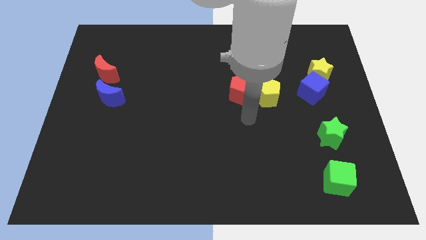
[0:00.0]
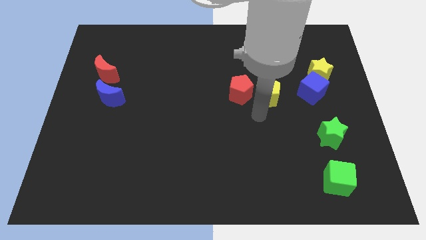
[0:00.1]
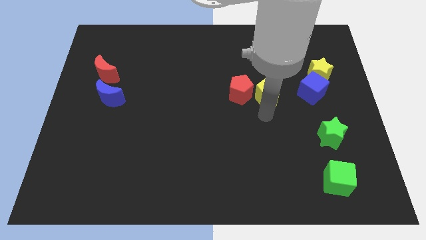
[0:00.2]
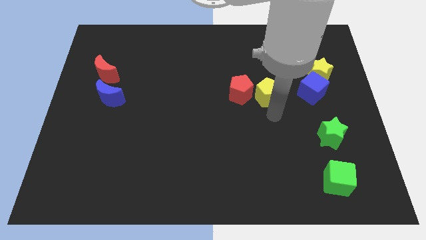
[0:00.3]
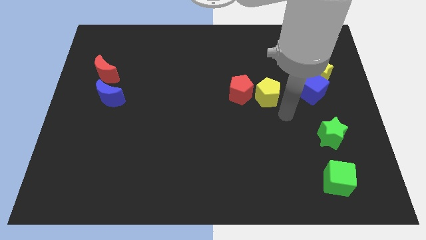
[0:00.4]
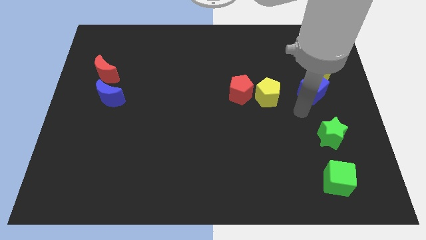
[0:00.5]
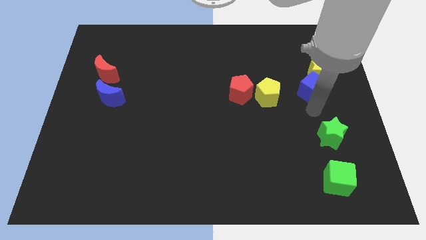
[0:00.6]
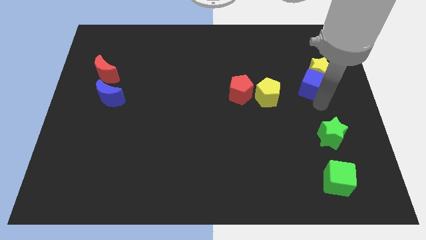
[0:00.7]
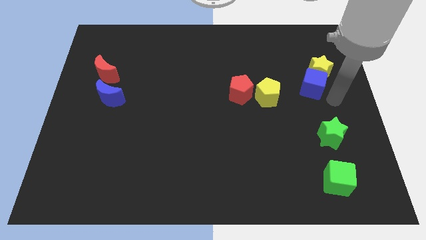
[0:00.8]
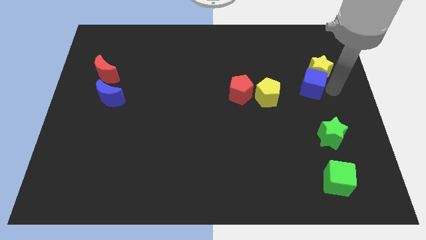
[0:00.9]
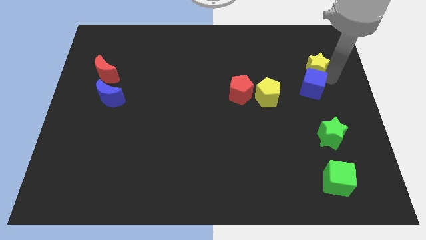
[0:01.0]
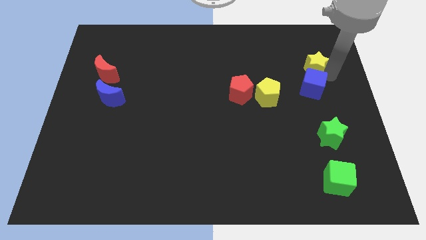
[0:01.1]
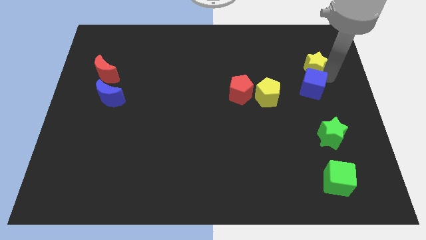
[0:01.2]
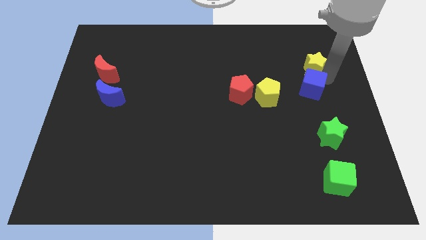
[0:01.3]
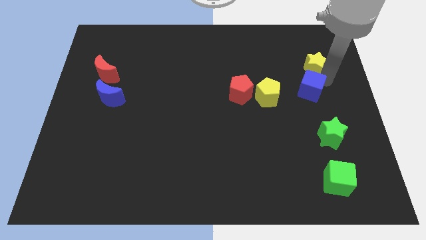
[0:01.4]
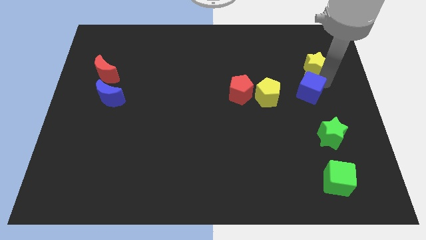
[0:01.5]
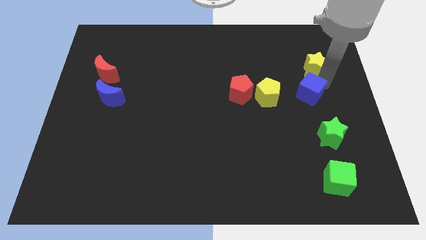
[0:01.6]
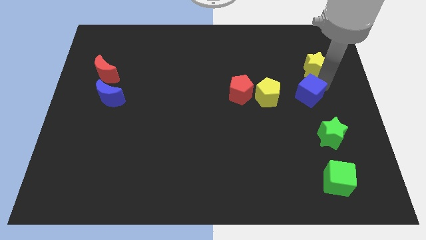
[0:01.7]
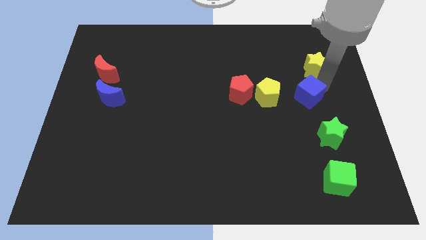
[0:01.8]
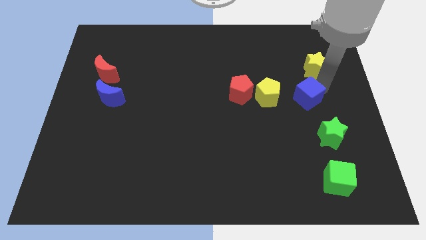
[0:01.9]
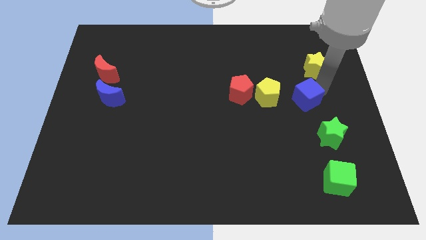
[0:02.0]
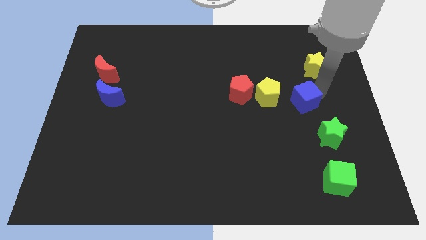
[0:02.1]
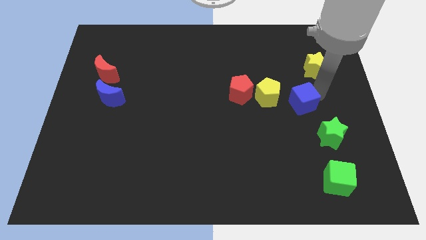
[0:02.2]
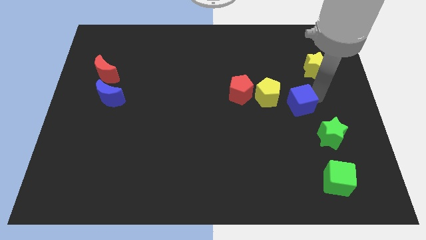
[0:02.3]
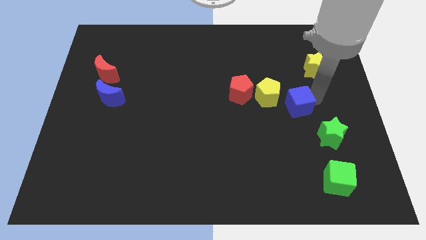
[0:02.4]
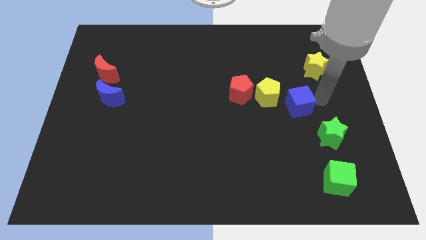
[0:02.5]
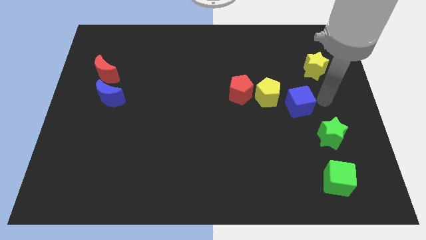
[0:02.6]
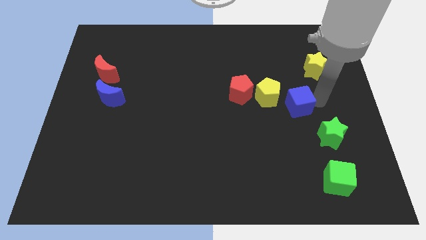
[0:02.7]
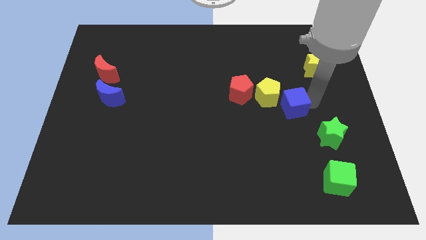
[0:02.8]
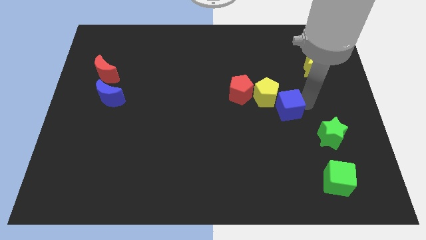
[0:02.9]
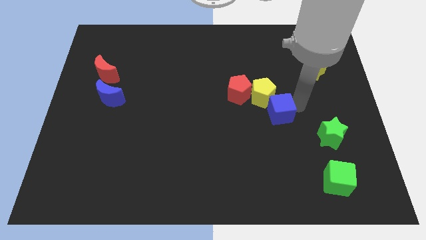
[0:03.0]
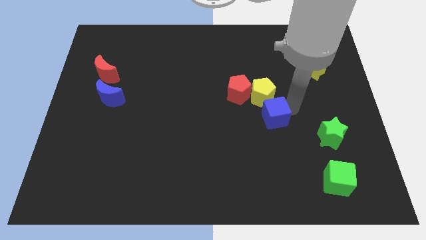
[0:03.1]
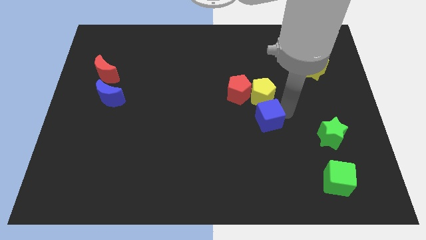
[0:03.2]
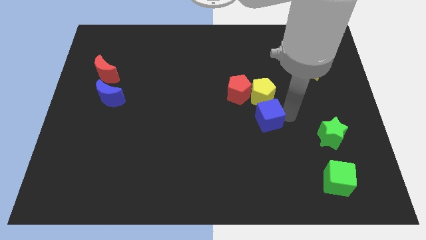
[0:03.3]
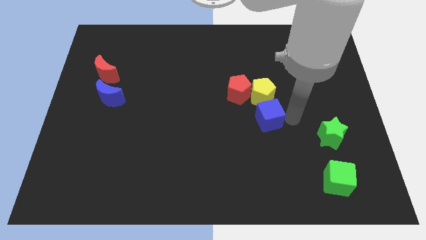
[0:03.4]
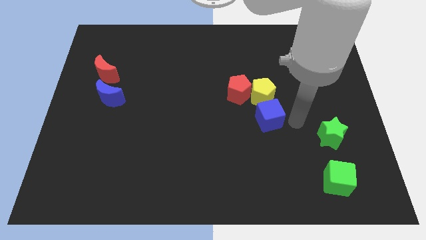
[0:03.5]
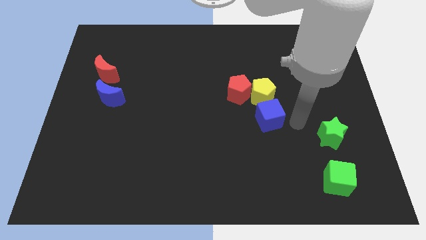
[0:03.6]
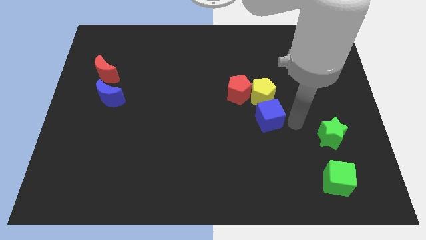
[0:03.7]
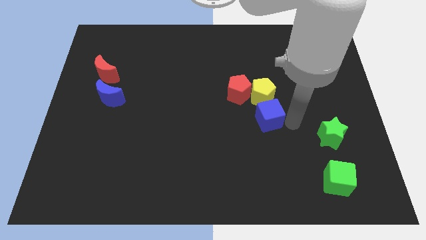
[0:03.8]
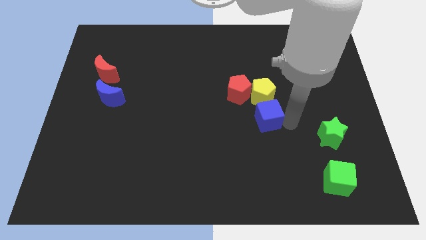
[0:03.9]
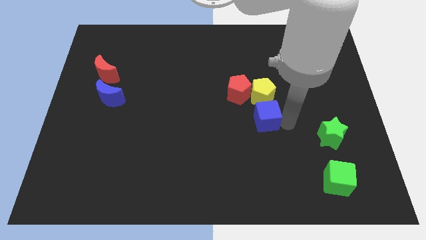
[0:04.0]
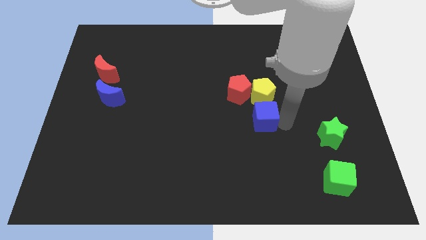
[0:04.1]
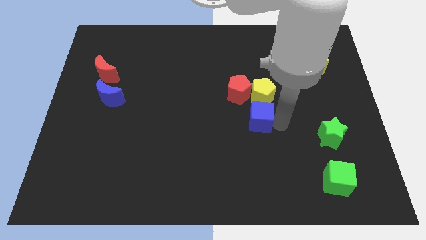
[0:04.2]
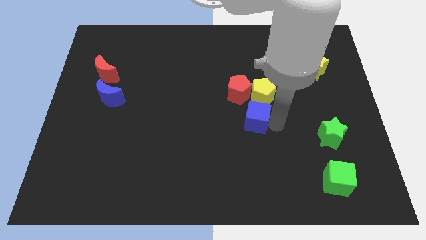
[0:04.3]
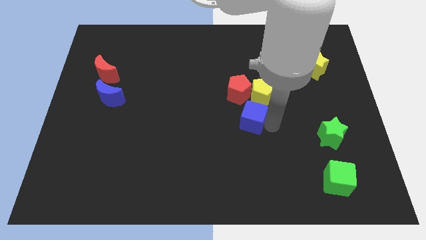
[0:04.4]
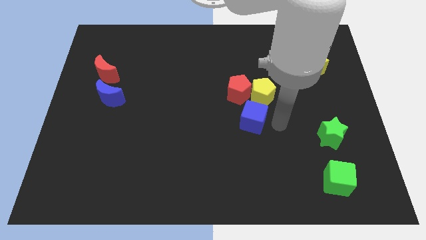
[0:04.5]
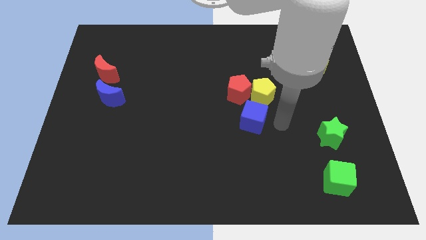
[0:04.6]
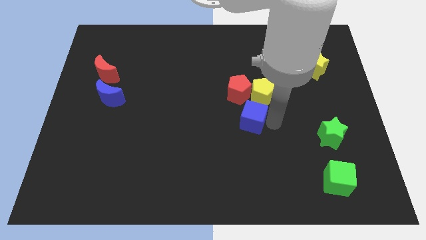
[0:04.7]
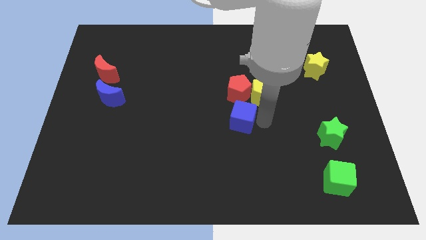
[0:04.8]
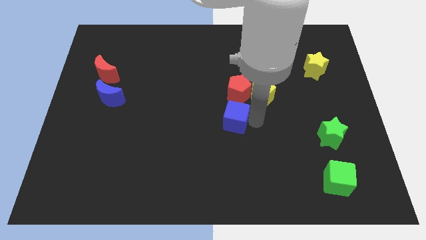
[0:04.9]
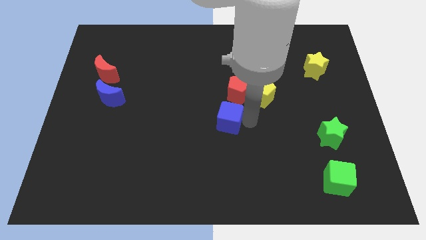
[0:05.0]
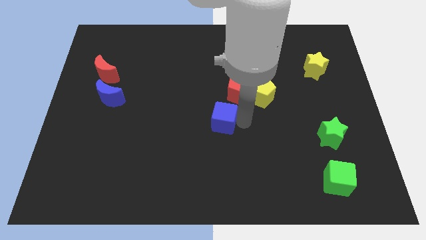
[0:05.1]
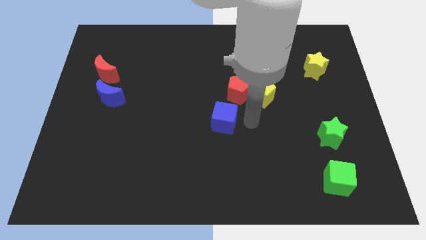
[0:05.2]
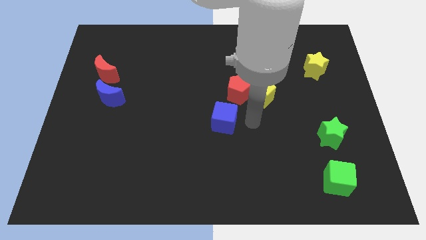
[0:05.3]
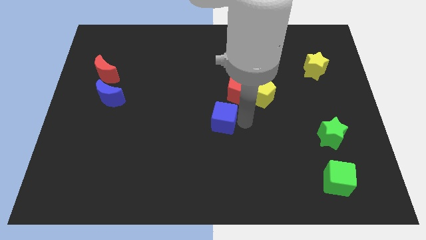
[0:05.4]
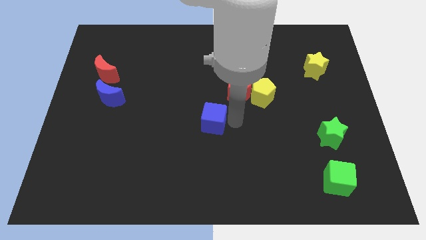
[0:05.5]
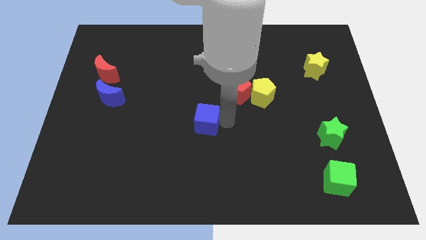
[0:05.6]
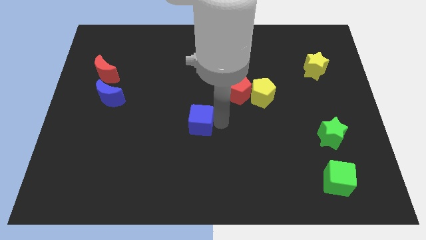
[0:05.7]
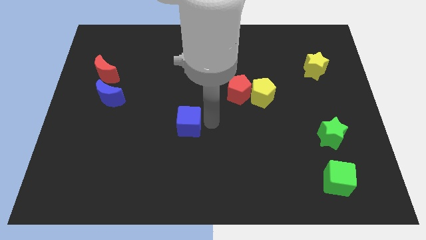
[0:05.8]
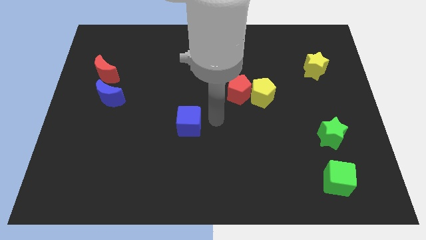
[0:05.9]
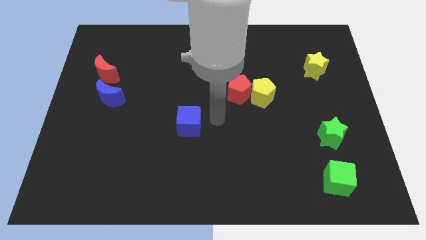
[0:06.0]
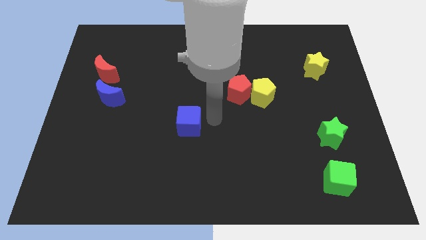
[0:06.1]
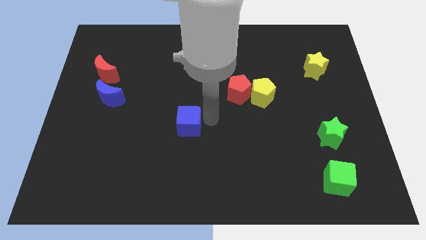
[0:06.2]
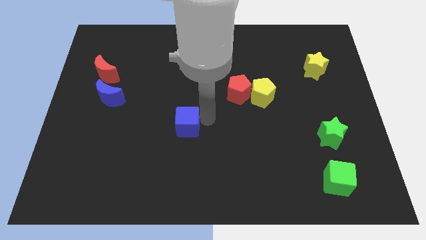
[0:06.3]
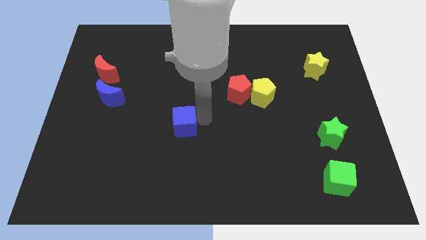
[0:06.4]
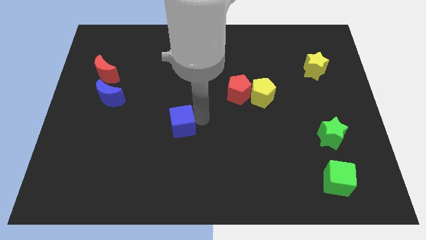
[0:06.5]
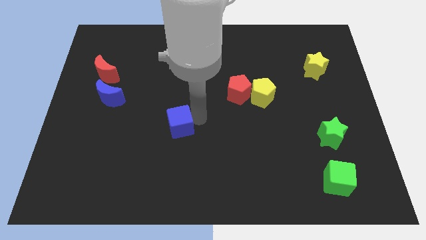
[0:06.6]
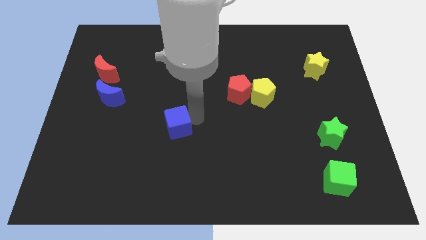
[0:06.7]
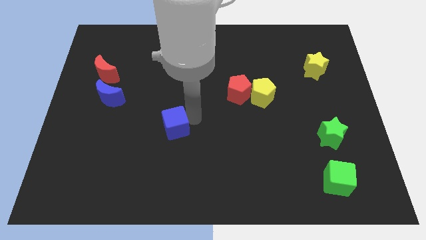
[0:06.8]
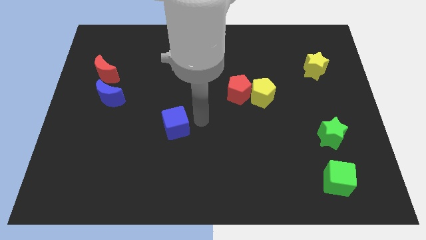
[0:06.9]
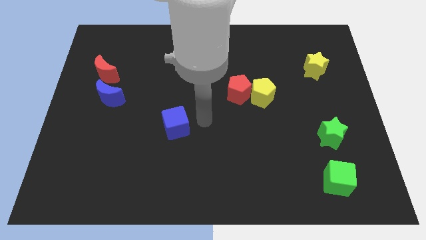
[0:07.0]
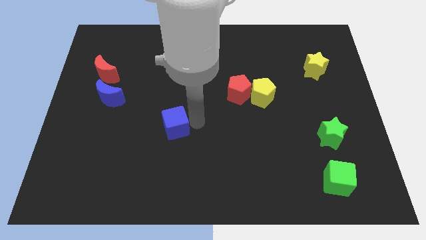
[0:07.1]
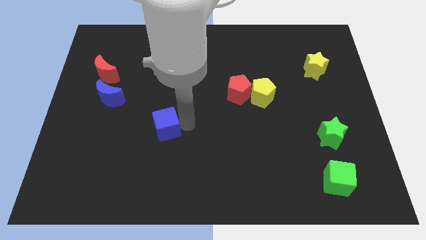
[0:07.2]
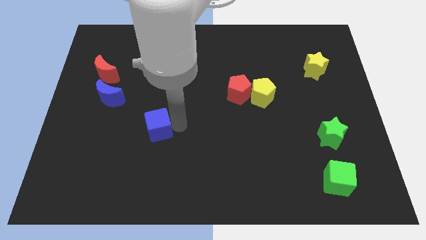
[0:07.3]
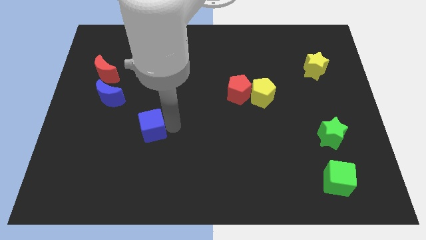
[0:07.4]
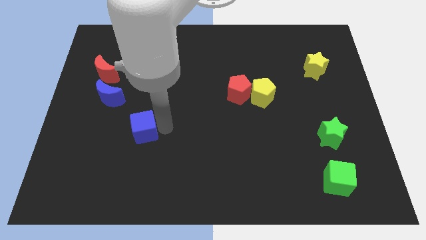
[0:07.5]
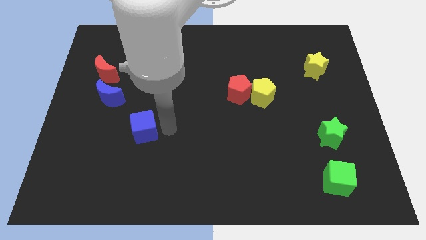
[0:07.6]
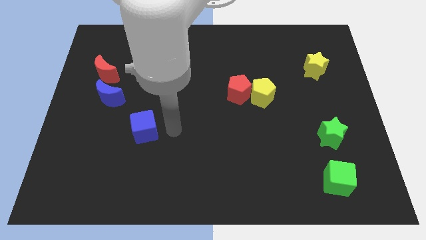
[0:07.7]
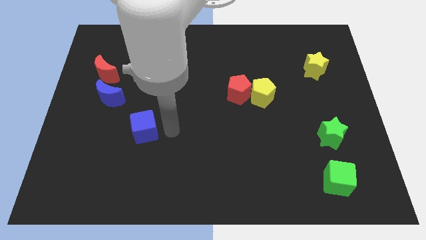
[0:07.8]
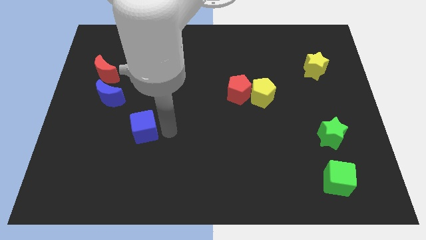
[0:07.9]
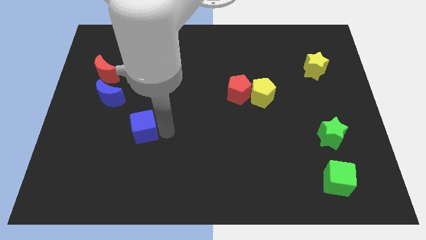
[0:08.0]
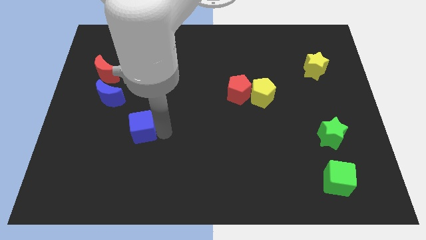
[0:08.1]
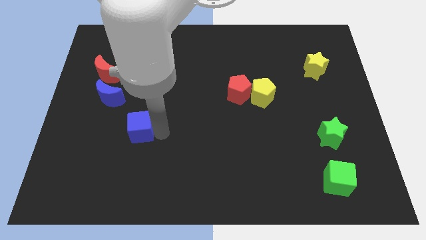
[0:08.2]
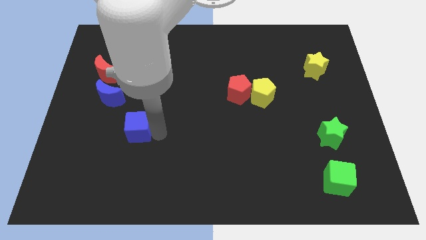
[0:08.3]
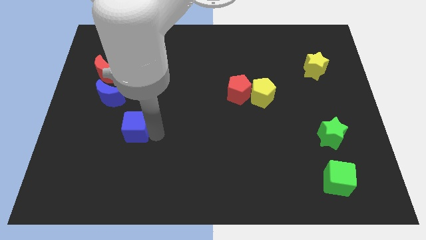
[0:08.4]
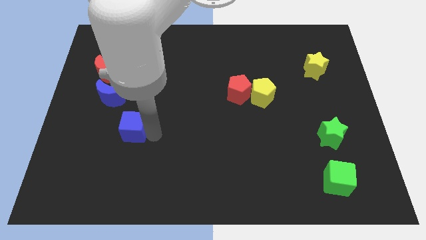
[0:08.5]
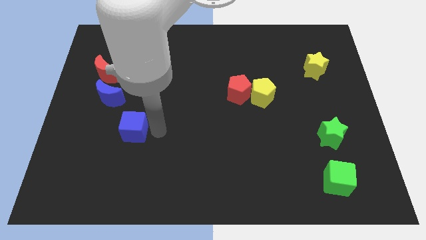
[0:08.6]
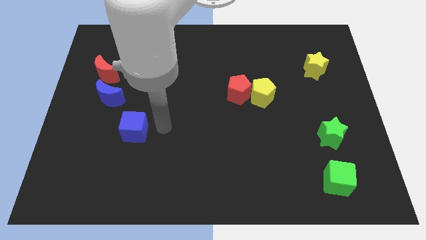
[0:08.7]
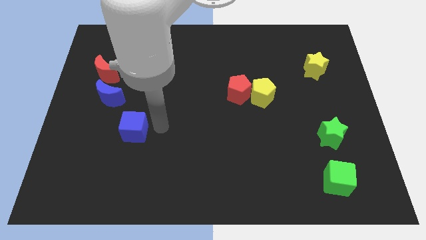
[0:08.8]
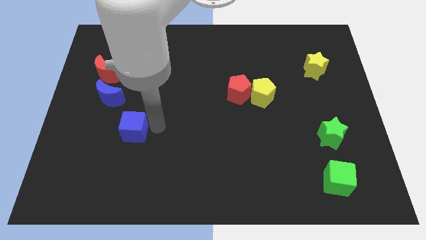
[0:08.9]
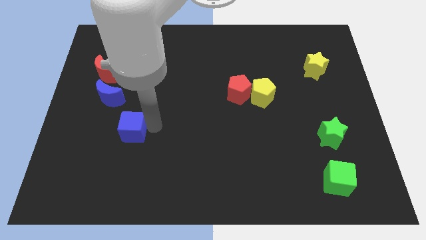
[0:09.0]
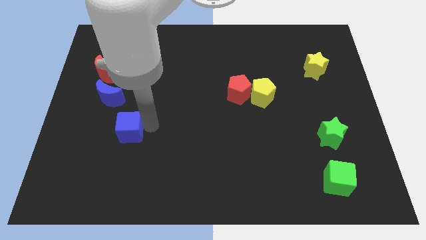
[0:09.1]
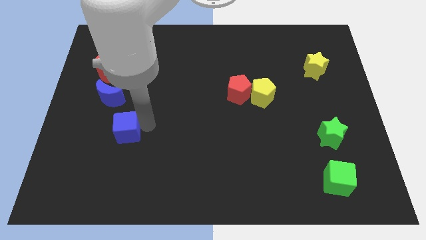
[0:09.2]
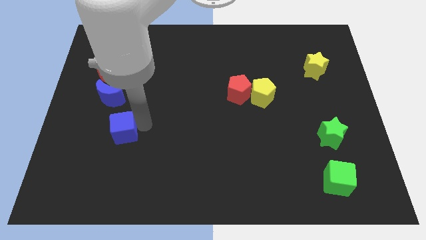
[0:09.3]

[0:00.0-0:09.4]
push the blue cube below the blue moon
